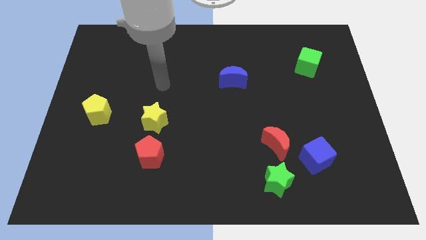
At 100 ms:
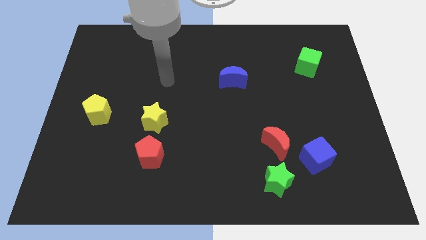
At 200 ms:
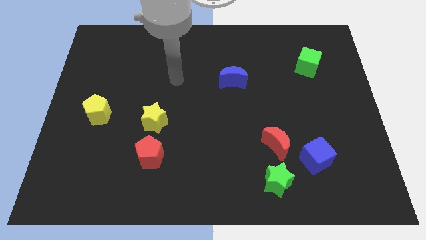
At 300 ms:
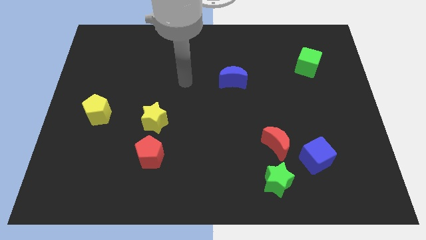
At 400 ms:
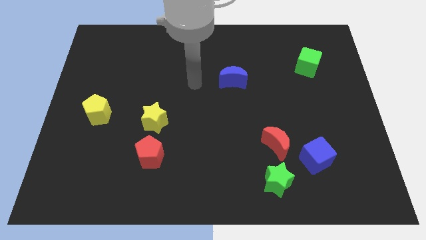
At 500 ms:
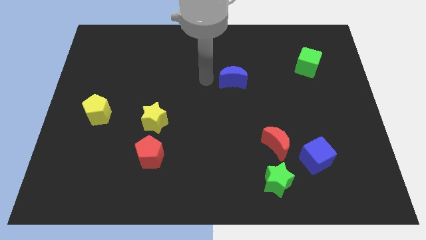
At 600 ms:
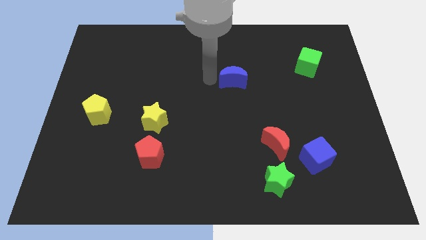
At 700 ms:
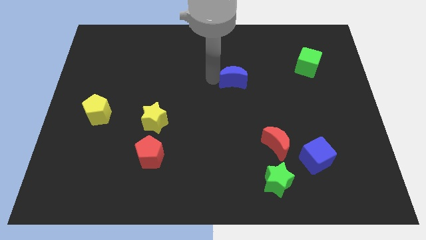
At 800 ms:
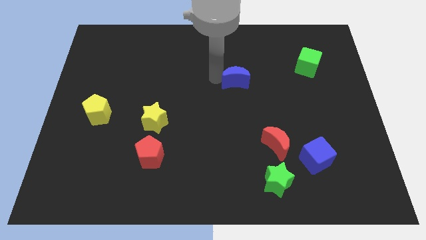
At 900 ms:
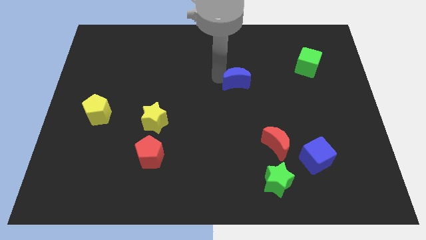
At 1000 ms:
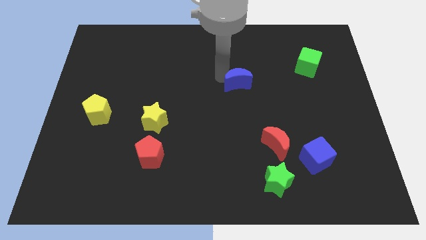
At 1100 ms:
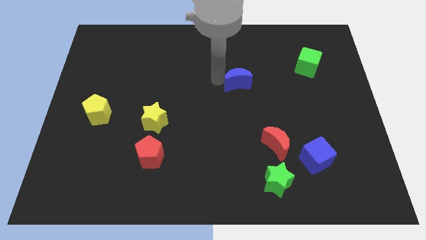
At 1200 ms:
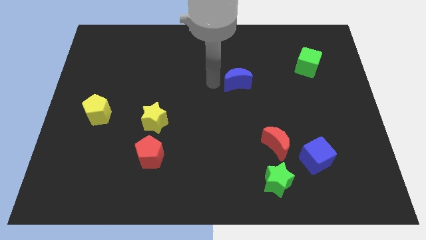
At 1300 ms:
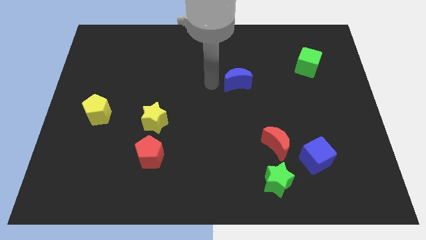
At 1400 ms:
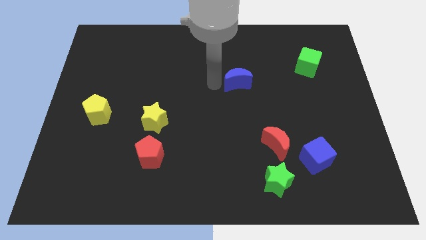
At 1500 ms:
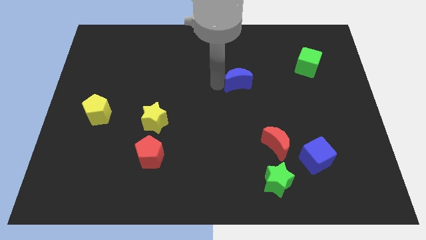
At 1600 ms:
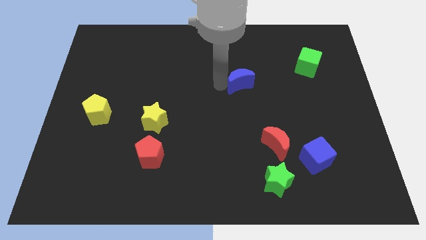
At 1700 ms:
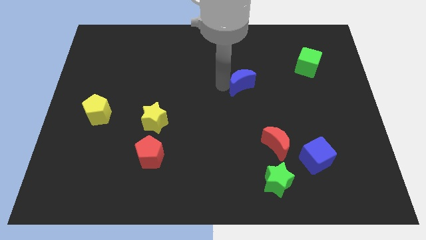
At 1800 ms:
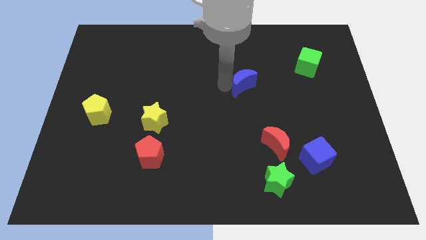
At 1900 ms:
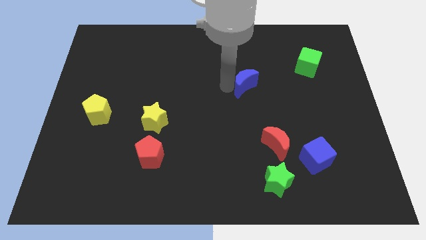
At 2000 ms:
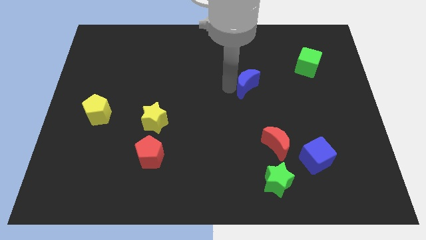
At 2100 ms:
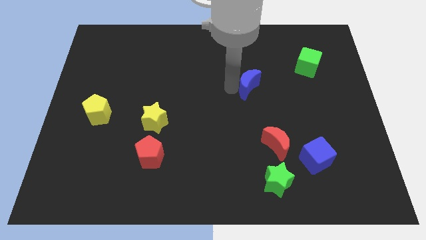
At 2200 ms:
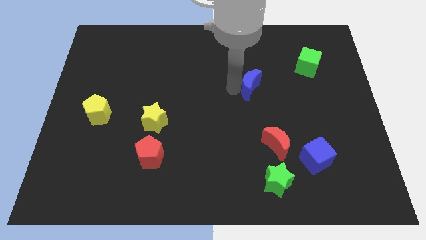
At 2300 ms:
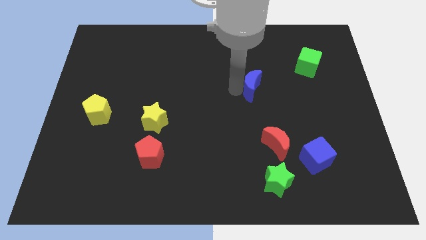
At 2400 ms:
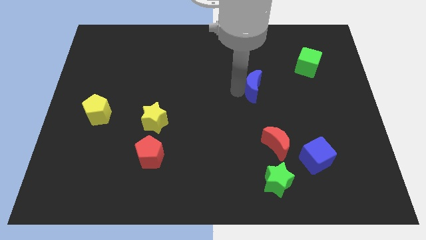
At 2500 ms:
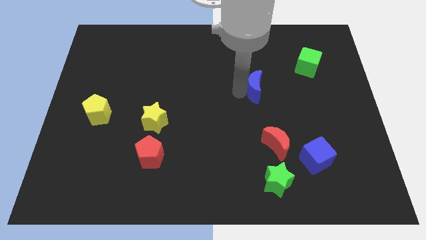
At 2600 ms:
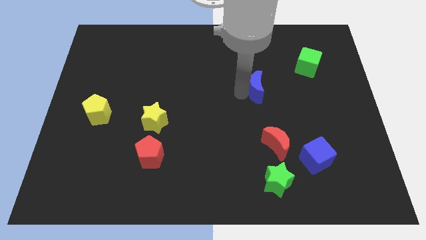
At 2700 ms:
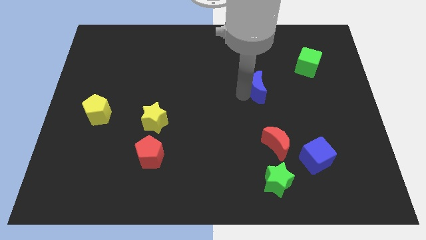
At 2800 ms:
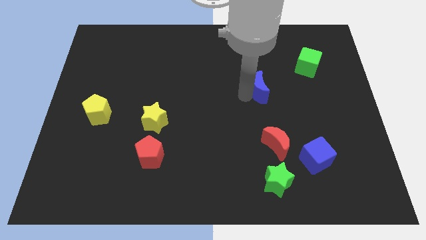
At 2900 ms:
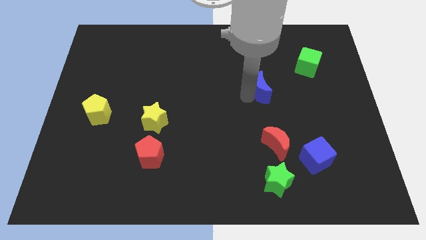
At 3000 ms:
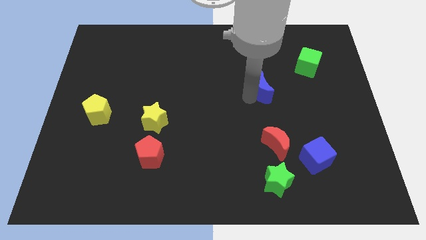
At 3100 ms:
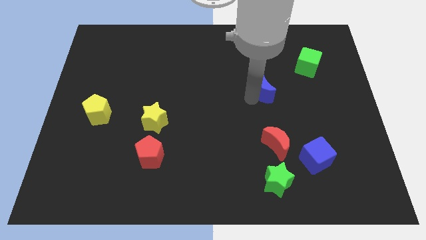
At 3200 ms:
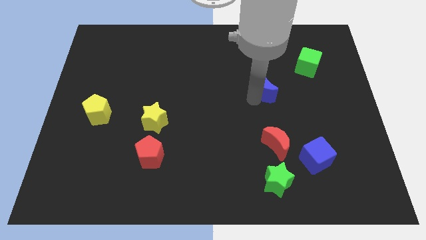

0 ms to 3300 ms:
slightly push the blue moon right

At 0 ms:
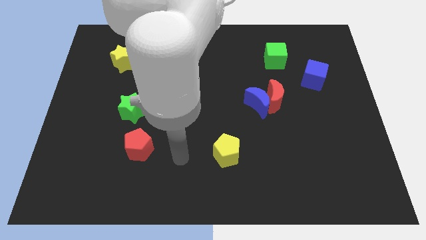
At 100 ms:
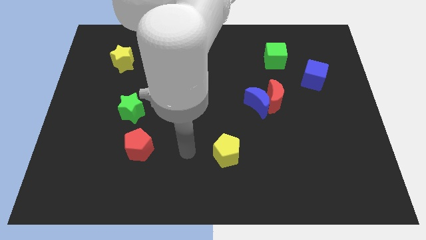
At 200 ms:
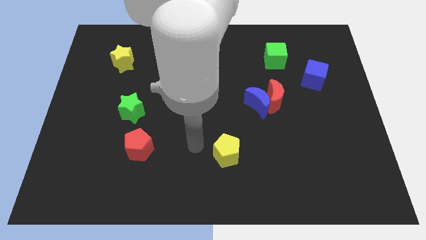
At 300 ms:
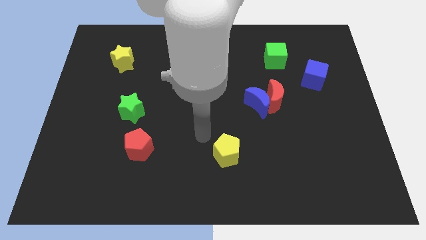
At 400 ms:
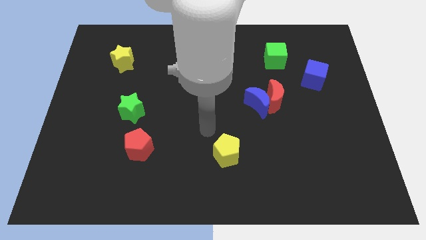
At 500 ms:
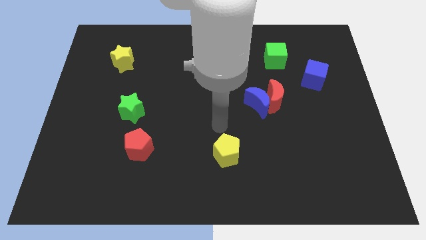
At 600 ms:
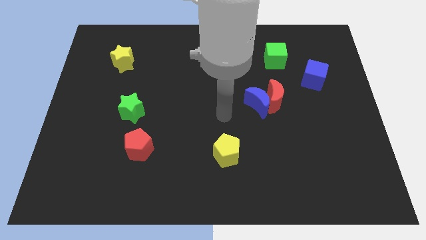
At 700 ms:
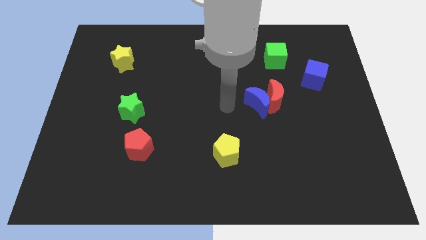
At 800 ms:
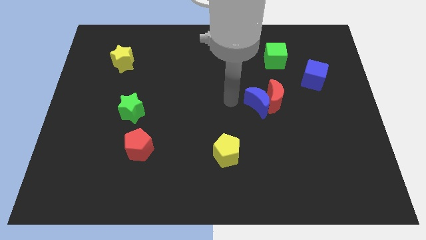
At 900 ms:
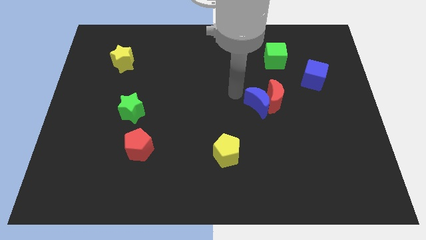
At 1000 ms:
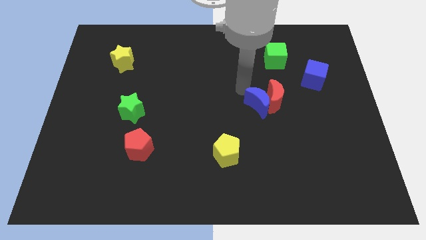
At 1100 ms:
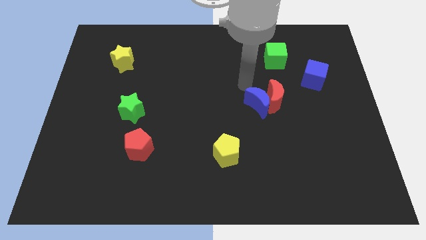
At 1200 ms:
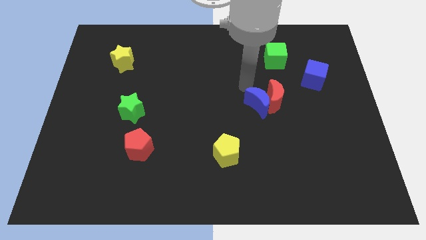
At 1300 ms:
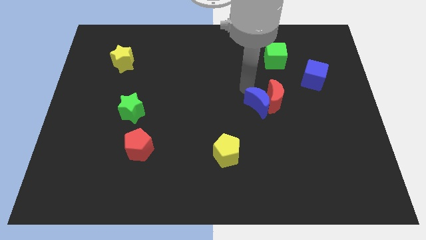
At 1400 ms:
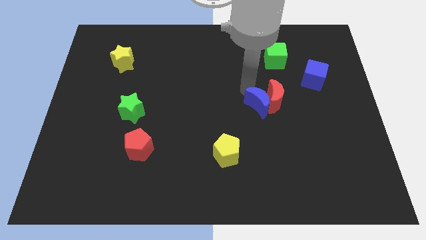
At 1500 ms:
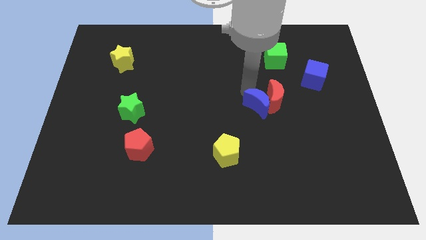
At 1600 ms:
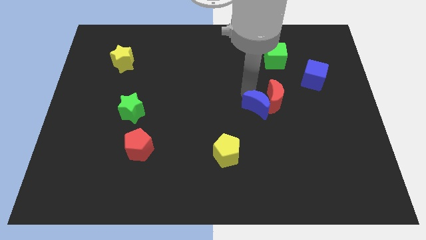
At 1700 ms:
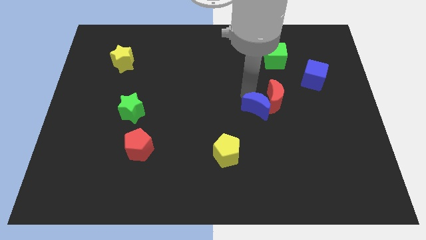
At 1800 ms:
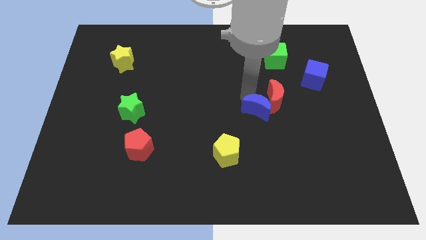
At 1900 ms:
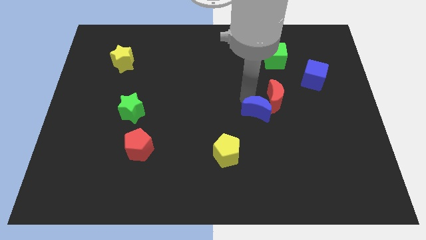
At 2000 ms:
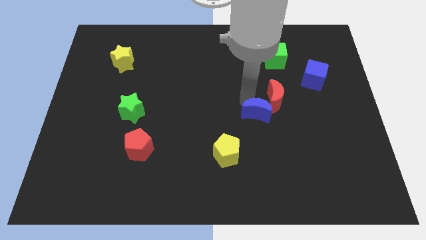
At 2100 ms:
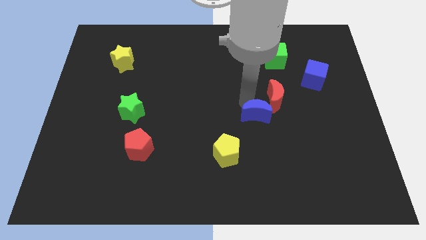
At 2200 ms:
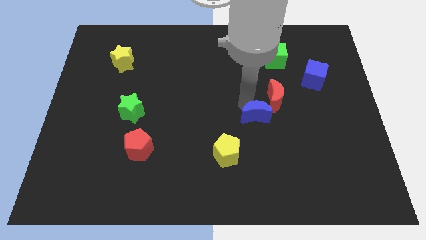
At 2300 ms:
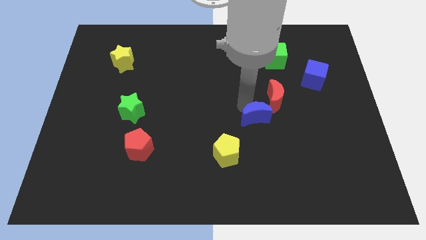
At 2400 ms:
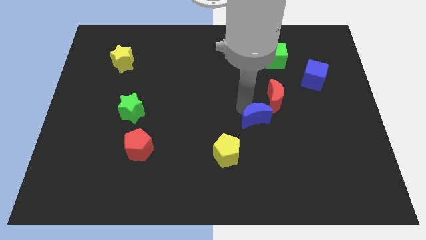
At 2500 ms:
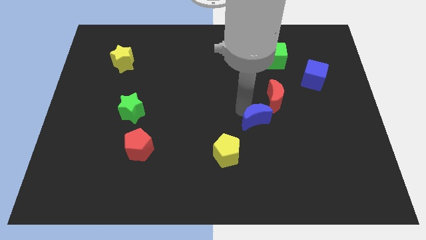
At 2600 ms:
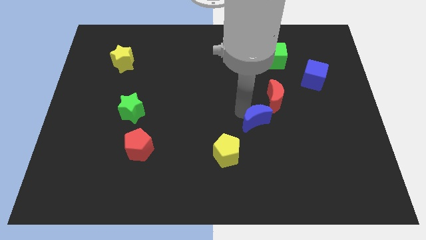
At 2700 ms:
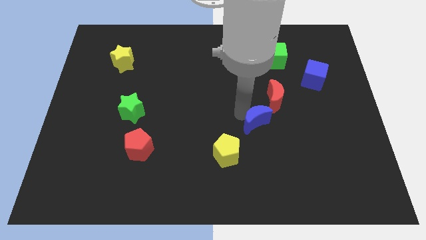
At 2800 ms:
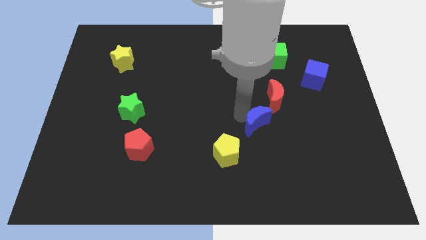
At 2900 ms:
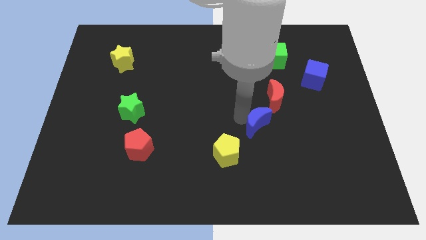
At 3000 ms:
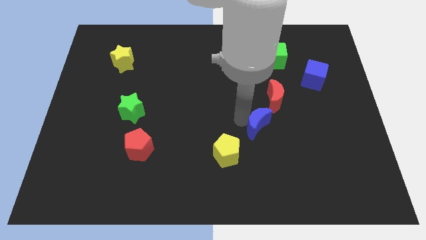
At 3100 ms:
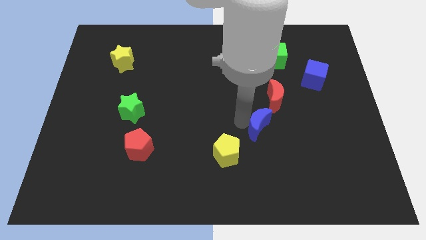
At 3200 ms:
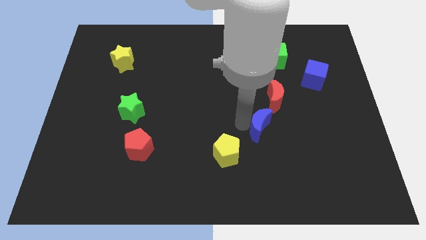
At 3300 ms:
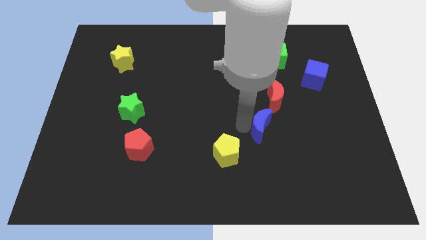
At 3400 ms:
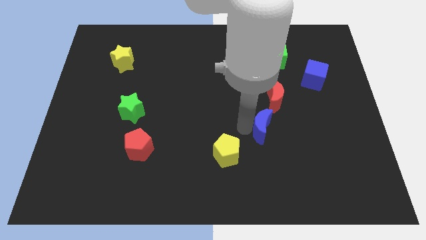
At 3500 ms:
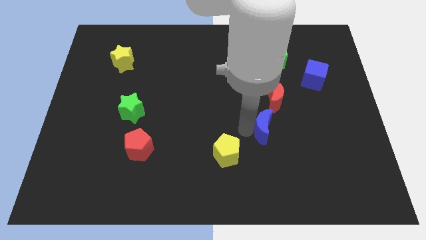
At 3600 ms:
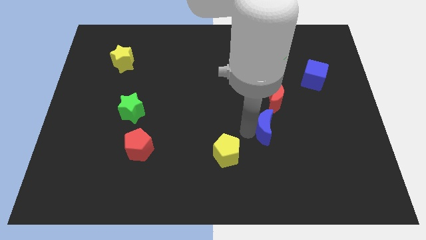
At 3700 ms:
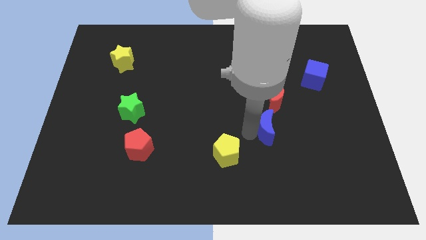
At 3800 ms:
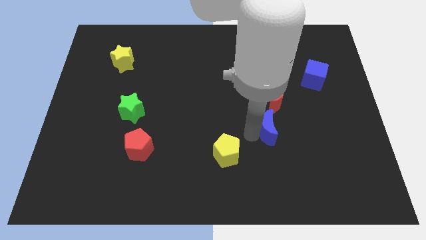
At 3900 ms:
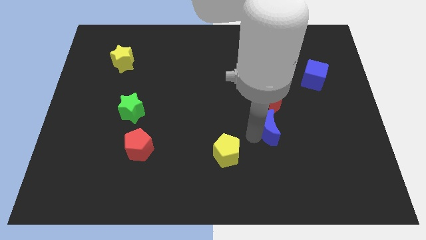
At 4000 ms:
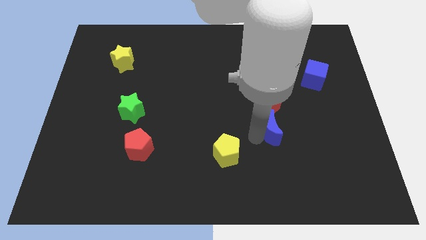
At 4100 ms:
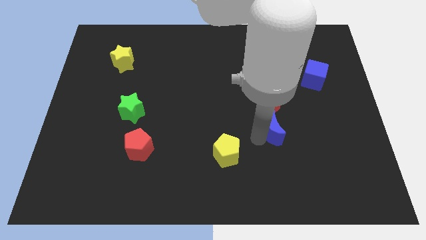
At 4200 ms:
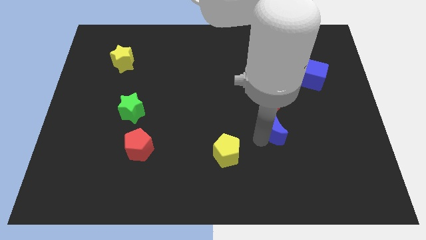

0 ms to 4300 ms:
slightly slide the blue moon down and to the right

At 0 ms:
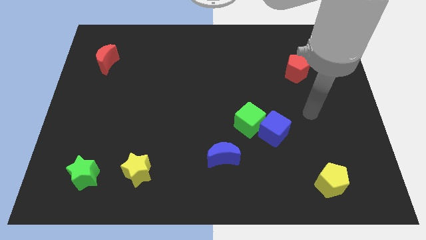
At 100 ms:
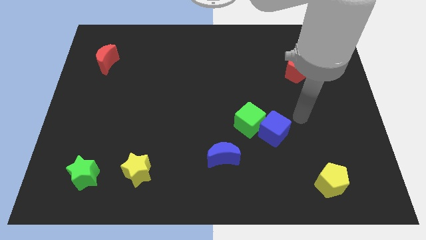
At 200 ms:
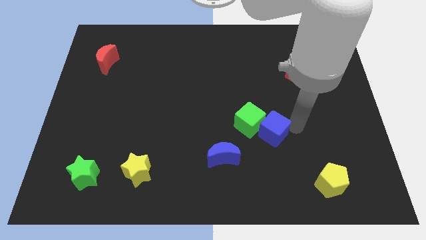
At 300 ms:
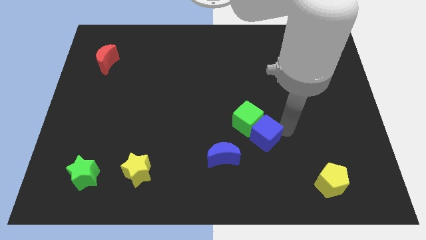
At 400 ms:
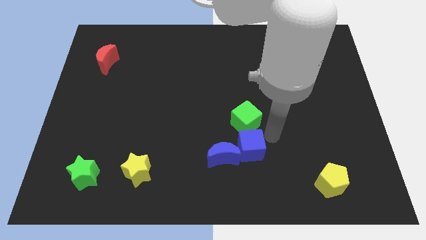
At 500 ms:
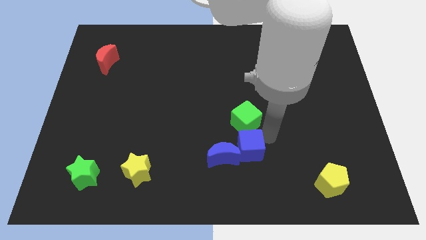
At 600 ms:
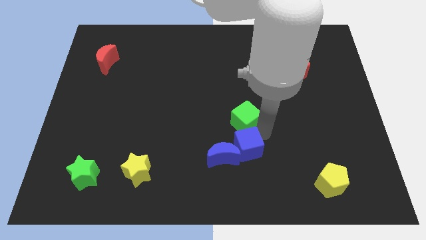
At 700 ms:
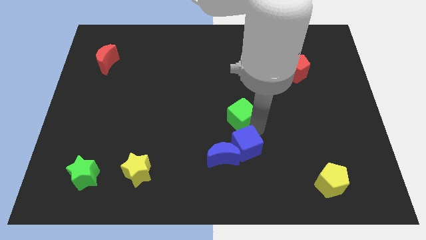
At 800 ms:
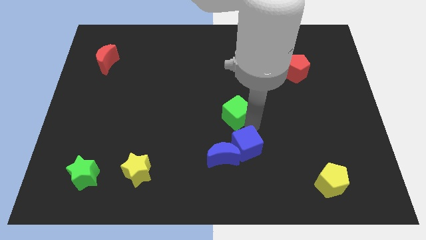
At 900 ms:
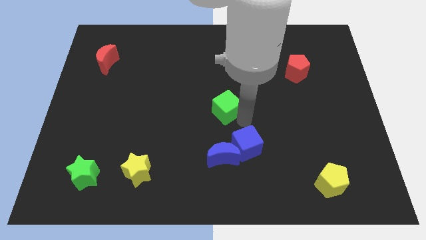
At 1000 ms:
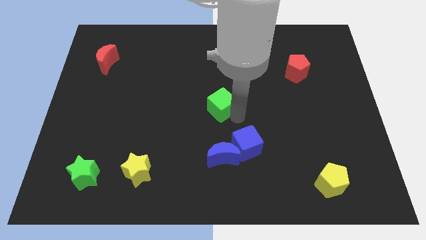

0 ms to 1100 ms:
move the green cube diagonally up and left a little
